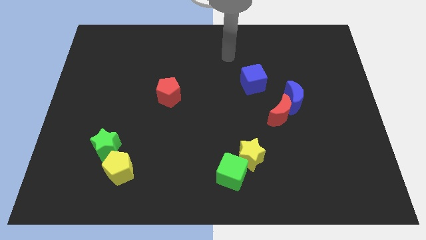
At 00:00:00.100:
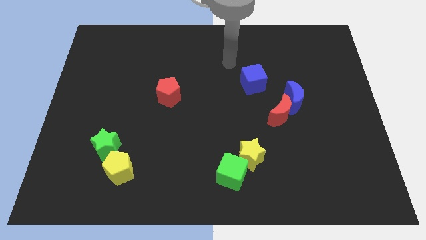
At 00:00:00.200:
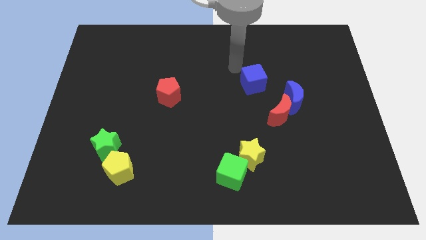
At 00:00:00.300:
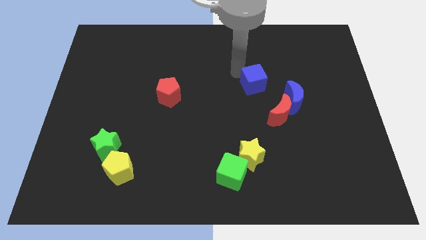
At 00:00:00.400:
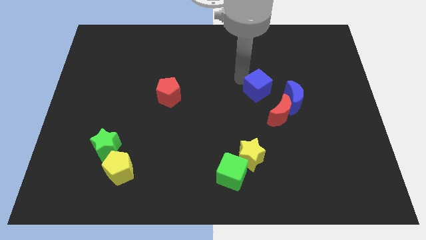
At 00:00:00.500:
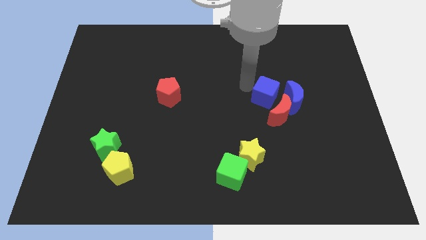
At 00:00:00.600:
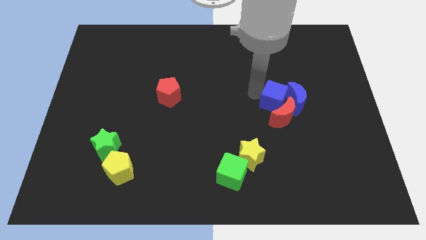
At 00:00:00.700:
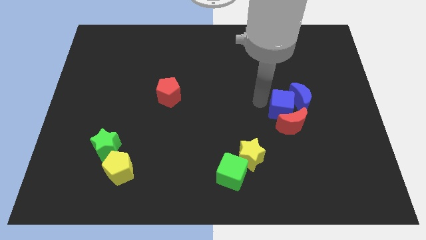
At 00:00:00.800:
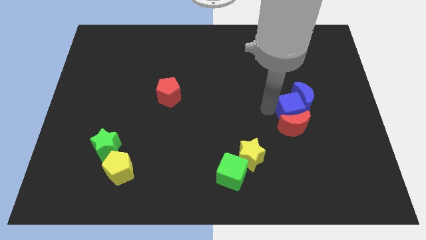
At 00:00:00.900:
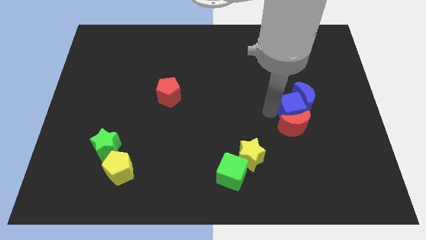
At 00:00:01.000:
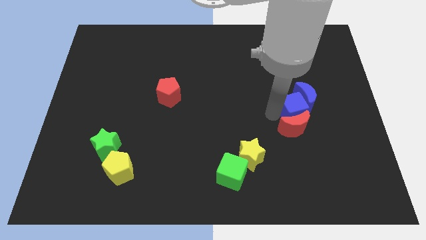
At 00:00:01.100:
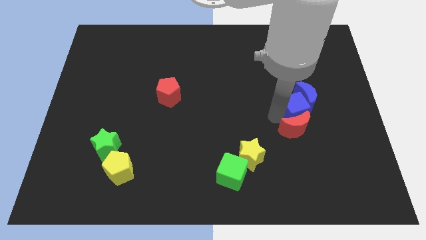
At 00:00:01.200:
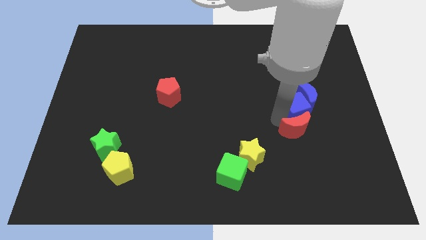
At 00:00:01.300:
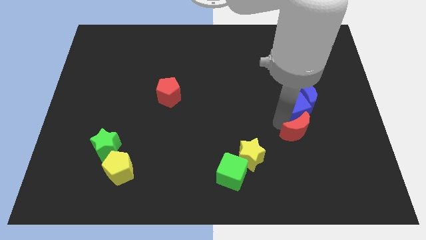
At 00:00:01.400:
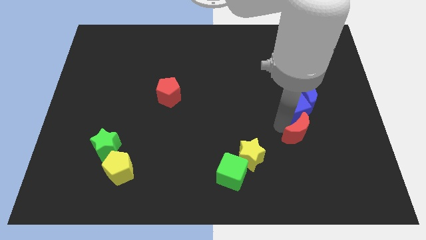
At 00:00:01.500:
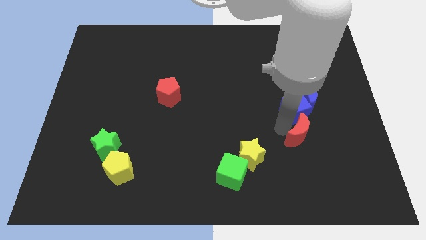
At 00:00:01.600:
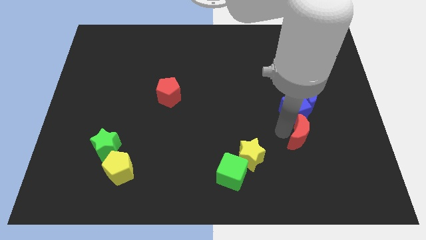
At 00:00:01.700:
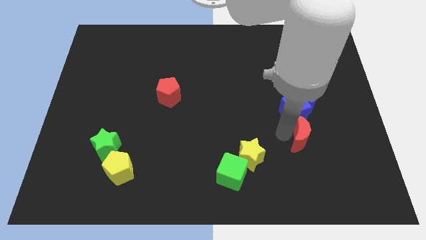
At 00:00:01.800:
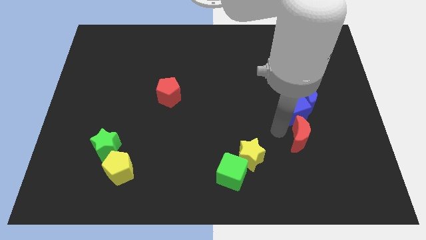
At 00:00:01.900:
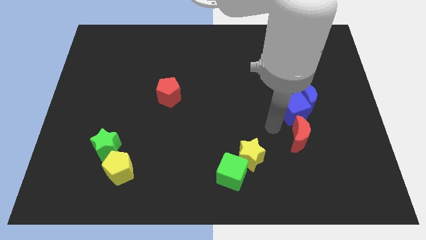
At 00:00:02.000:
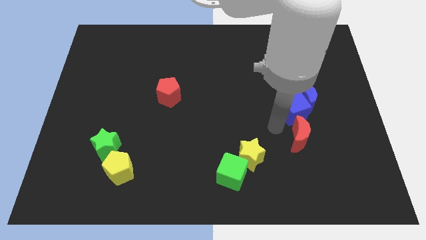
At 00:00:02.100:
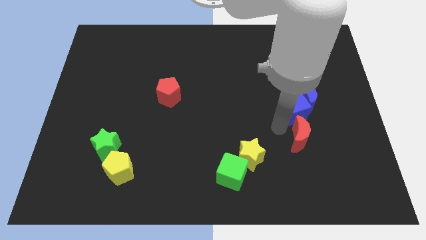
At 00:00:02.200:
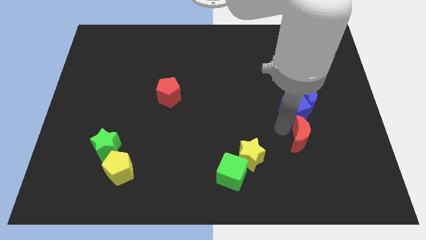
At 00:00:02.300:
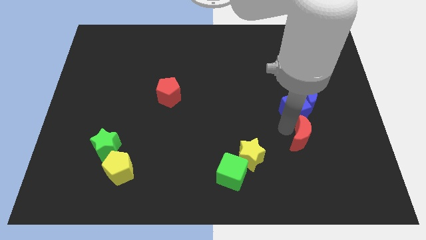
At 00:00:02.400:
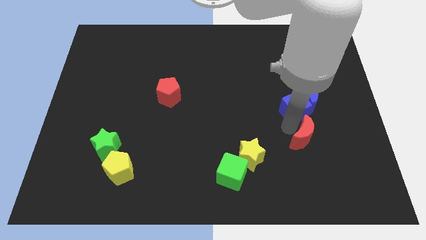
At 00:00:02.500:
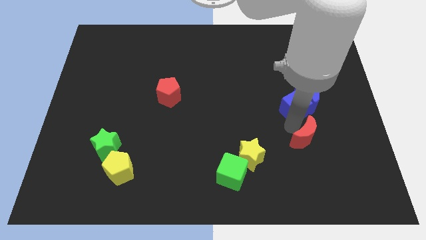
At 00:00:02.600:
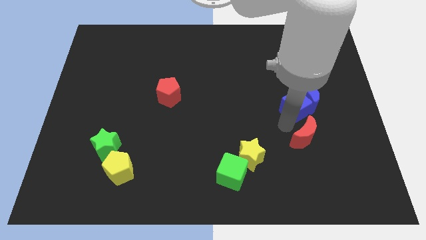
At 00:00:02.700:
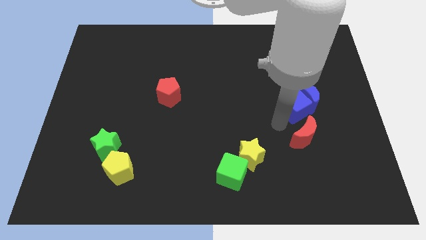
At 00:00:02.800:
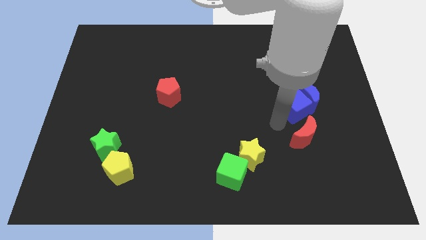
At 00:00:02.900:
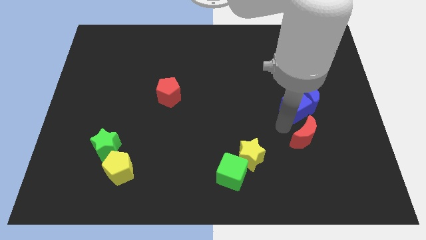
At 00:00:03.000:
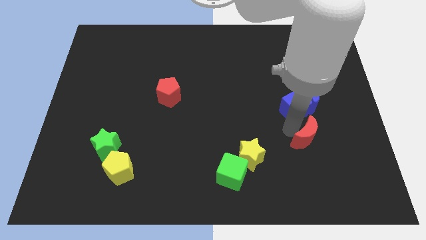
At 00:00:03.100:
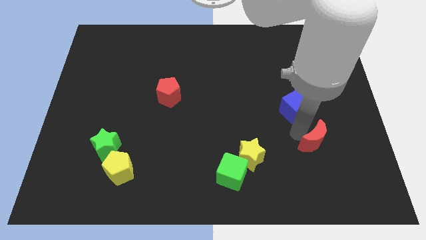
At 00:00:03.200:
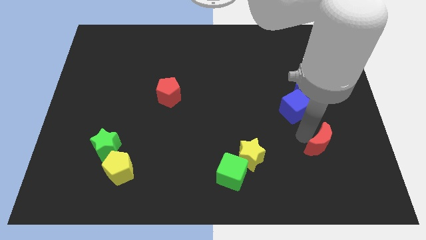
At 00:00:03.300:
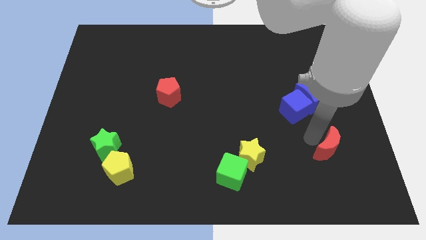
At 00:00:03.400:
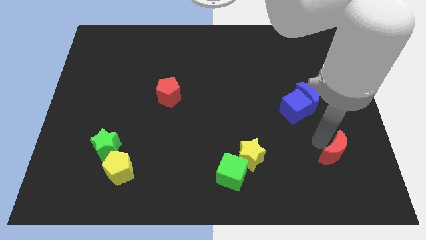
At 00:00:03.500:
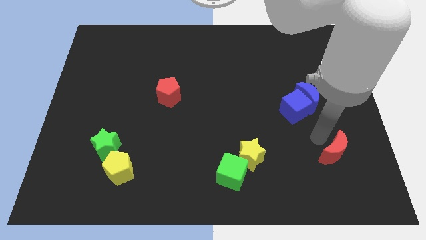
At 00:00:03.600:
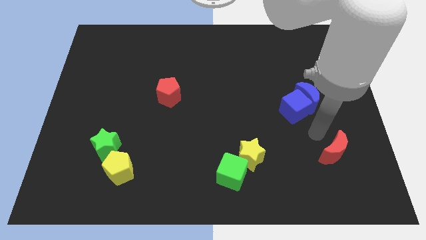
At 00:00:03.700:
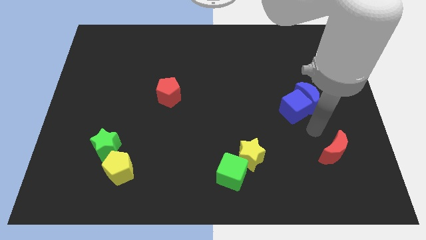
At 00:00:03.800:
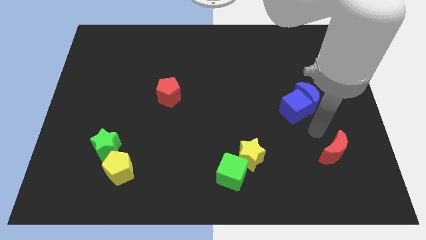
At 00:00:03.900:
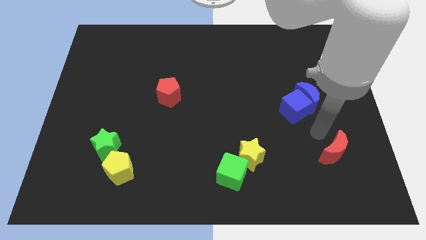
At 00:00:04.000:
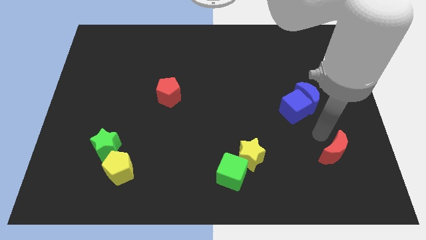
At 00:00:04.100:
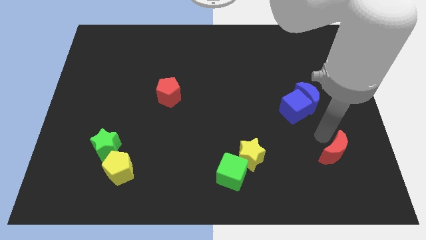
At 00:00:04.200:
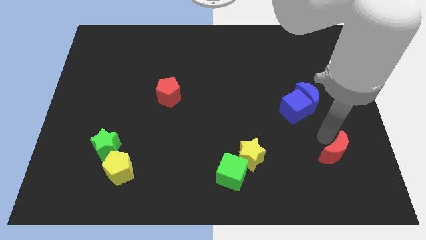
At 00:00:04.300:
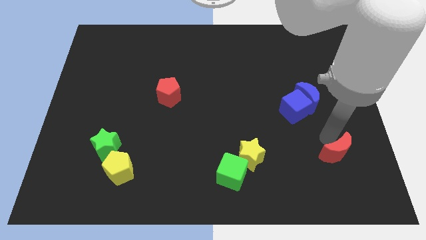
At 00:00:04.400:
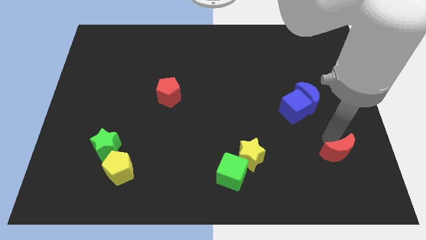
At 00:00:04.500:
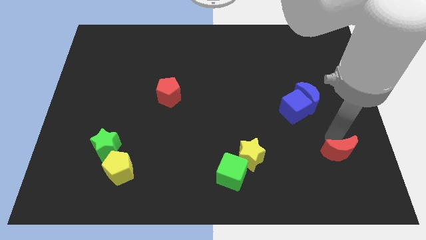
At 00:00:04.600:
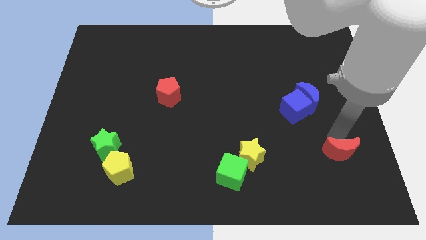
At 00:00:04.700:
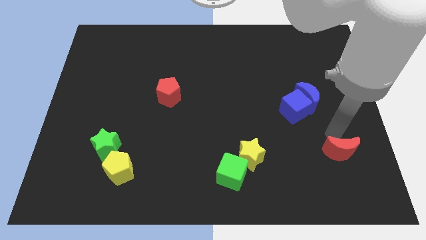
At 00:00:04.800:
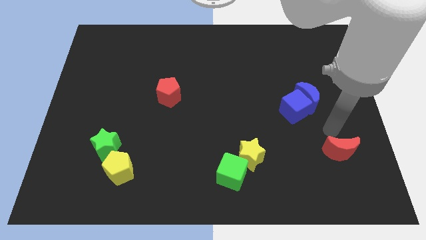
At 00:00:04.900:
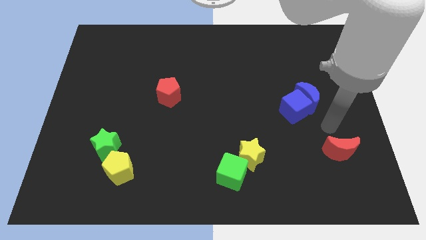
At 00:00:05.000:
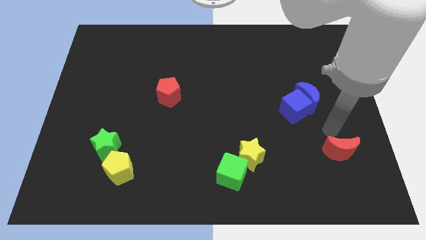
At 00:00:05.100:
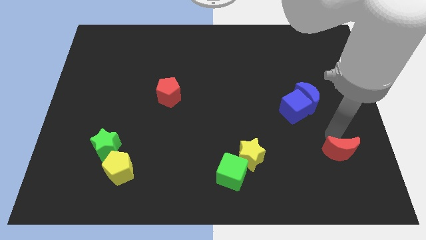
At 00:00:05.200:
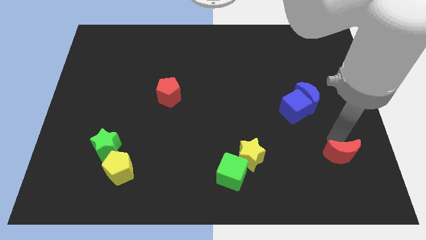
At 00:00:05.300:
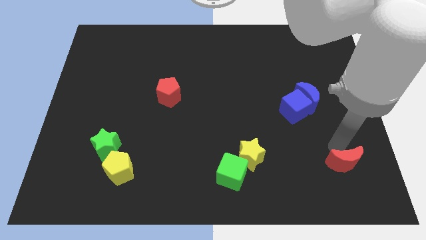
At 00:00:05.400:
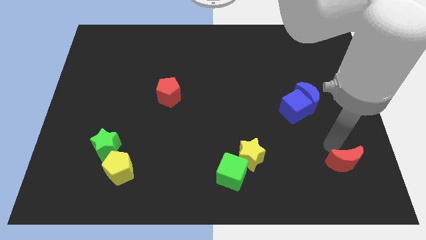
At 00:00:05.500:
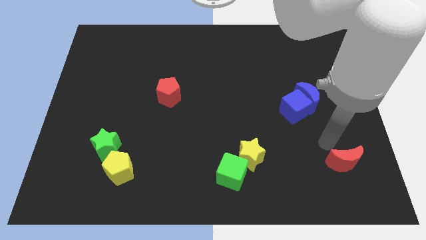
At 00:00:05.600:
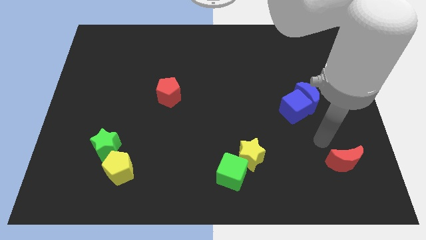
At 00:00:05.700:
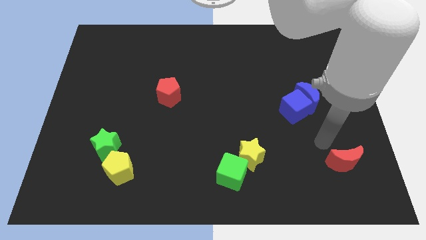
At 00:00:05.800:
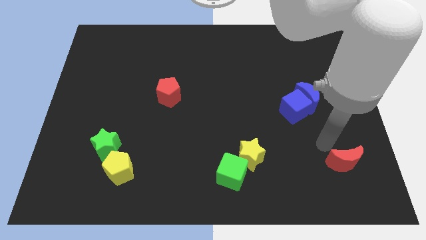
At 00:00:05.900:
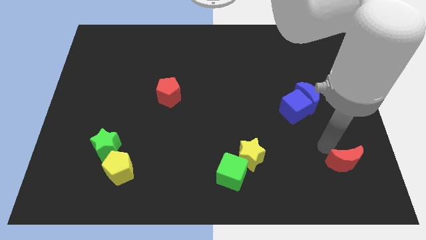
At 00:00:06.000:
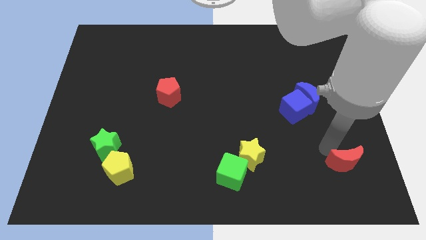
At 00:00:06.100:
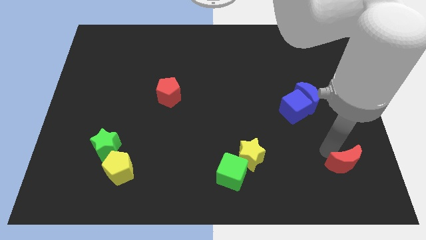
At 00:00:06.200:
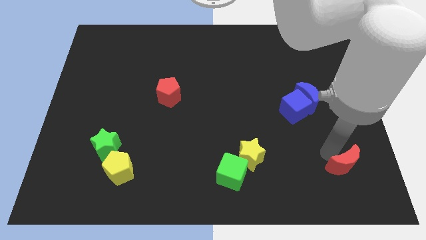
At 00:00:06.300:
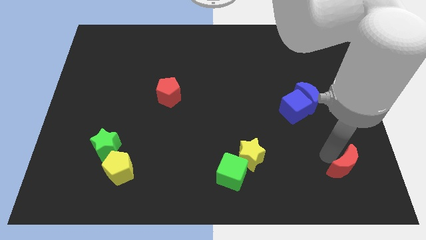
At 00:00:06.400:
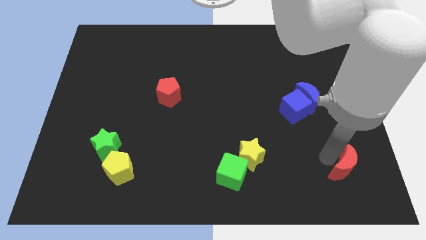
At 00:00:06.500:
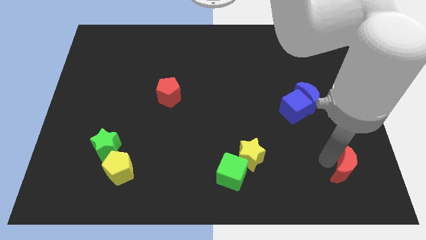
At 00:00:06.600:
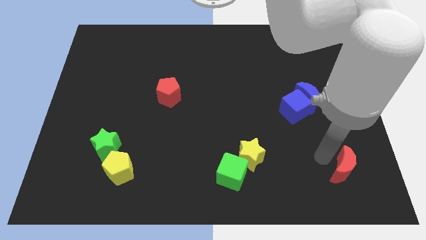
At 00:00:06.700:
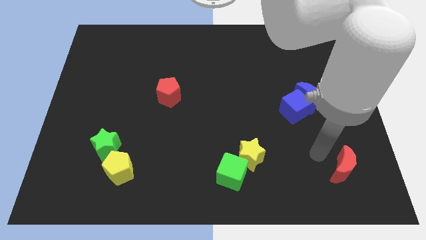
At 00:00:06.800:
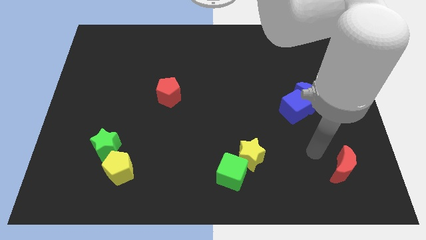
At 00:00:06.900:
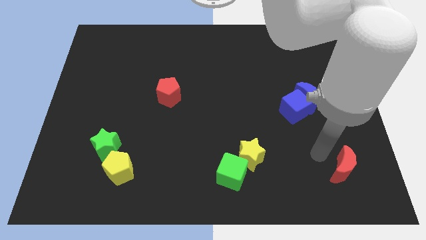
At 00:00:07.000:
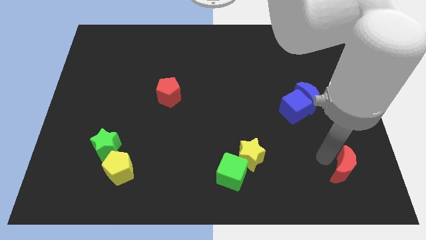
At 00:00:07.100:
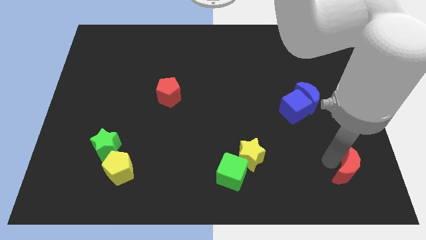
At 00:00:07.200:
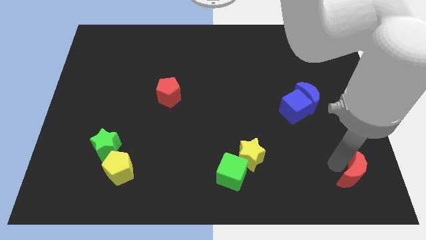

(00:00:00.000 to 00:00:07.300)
put the red moon to the bottom right of the board
